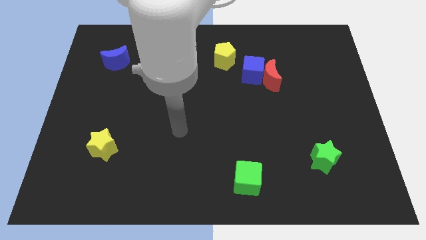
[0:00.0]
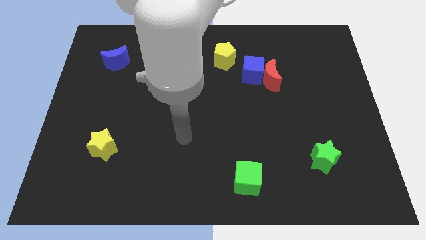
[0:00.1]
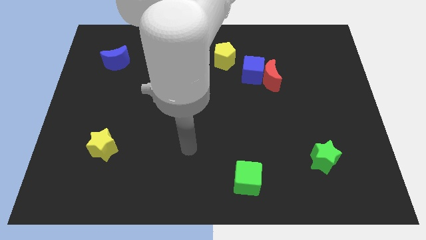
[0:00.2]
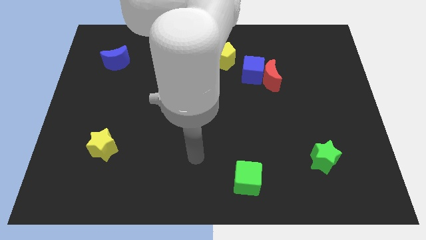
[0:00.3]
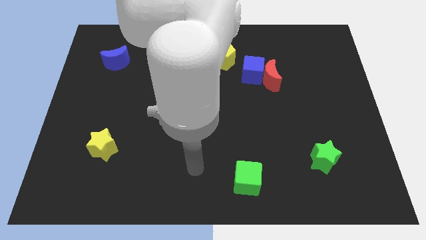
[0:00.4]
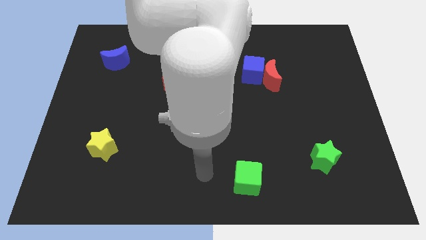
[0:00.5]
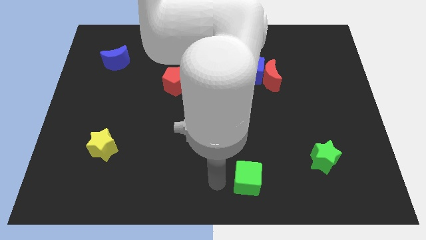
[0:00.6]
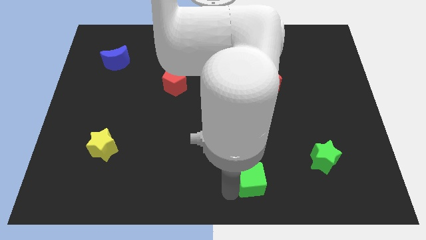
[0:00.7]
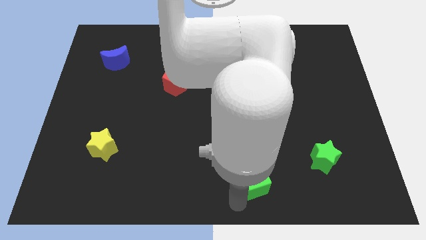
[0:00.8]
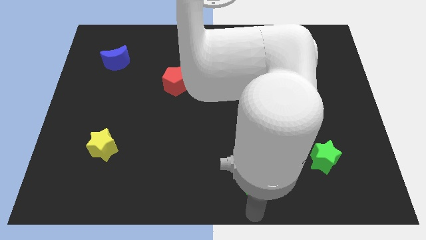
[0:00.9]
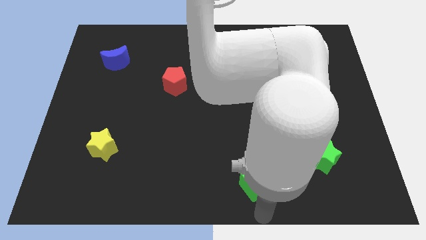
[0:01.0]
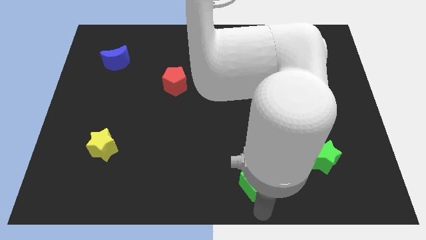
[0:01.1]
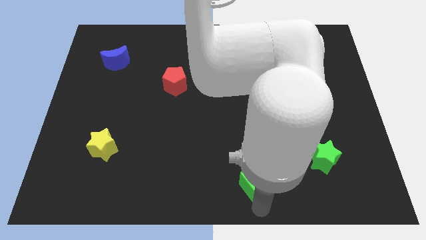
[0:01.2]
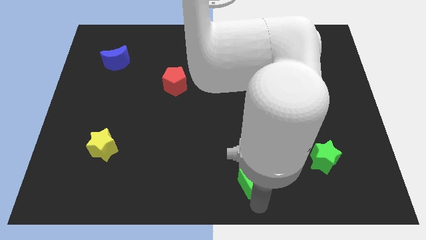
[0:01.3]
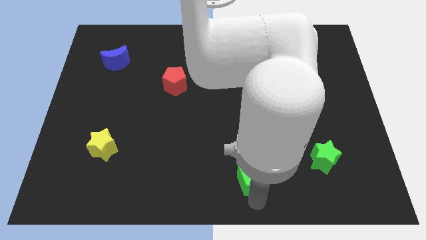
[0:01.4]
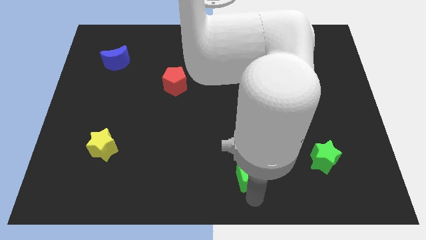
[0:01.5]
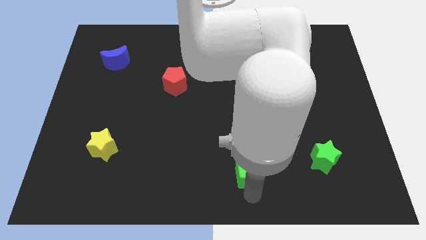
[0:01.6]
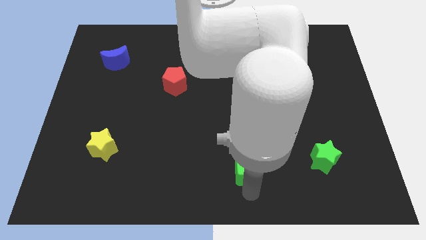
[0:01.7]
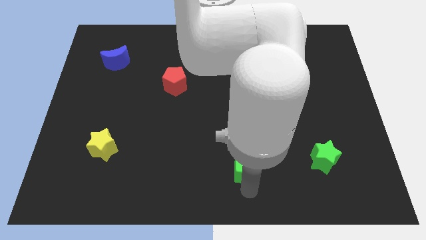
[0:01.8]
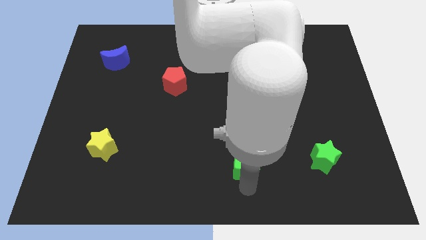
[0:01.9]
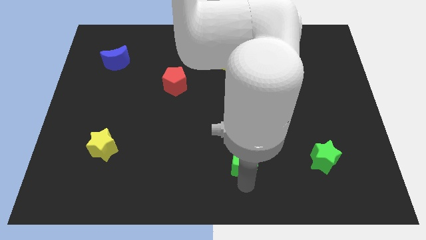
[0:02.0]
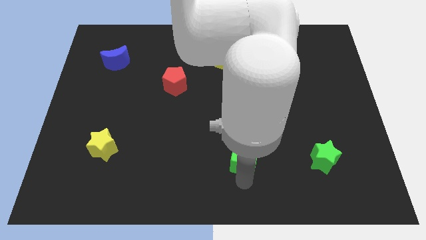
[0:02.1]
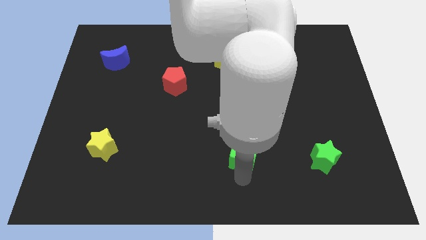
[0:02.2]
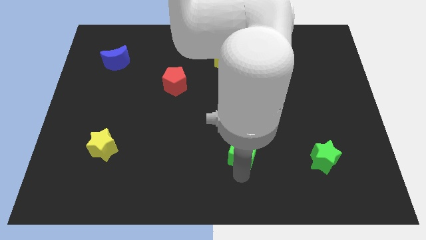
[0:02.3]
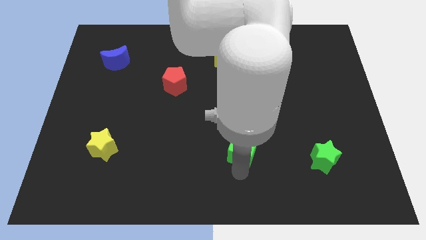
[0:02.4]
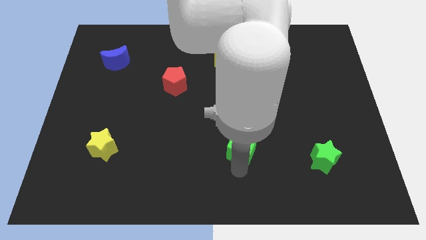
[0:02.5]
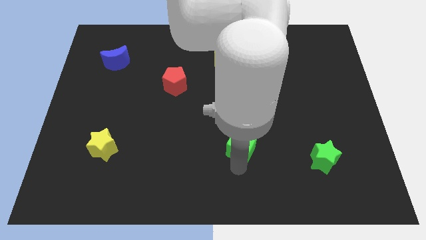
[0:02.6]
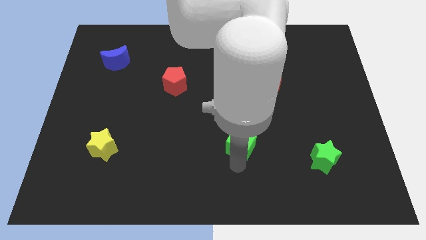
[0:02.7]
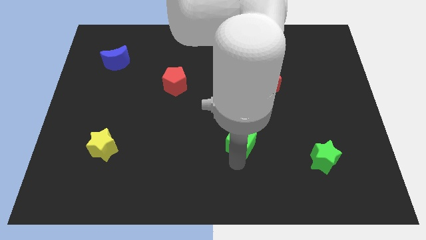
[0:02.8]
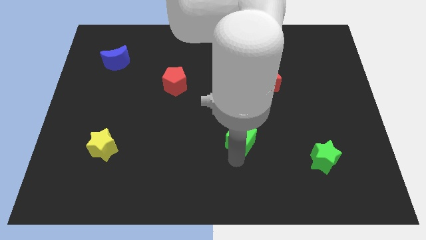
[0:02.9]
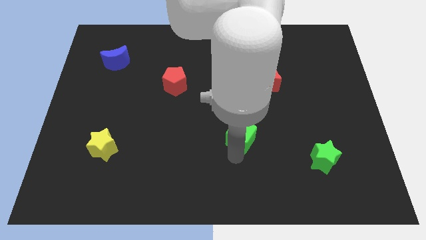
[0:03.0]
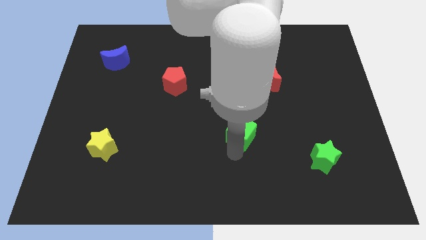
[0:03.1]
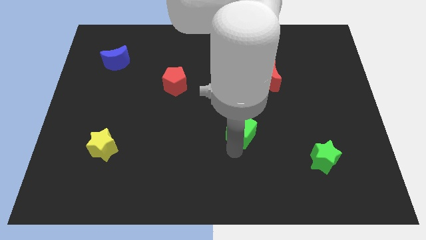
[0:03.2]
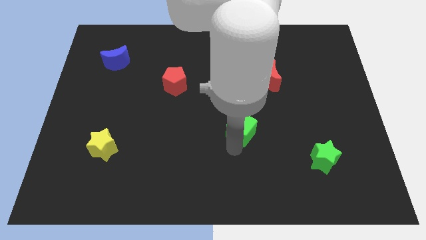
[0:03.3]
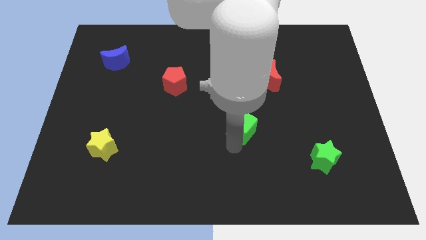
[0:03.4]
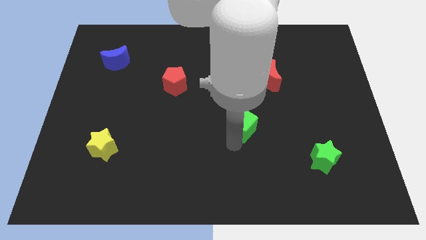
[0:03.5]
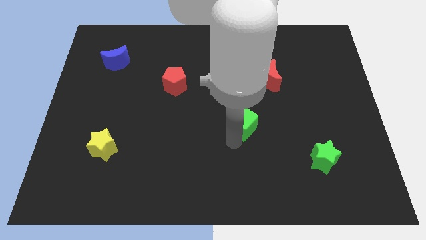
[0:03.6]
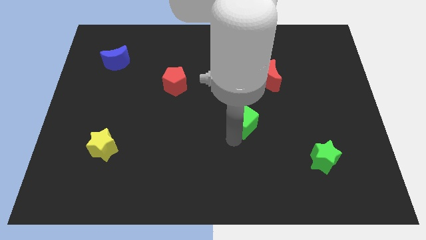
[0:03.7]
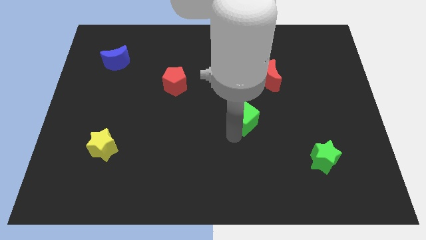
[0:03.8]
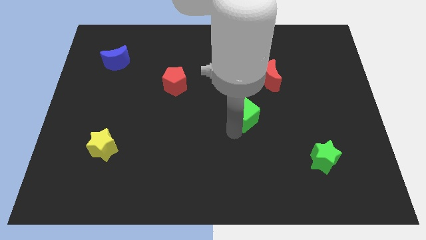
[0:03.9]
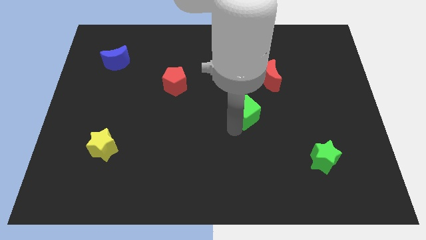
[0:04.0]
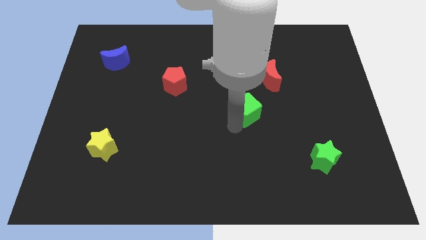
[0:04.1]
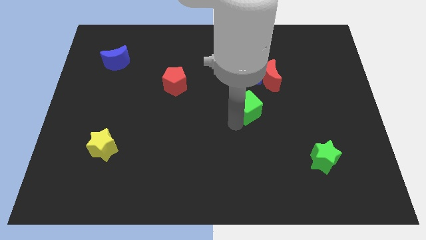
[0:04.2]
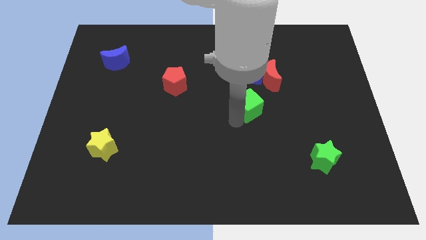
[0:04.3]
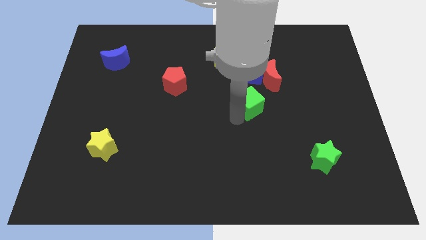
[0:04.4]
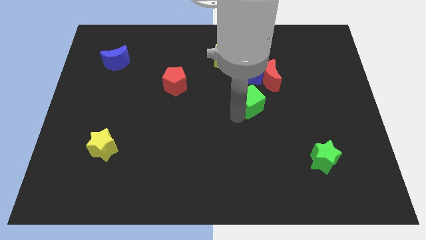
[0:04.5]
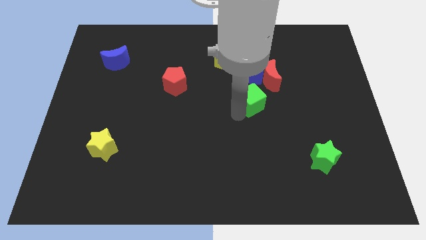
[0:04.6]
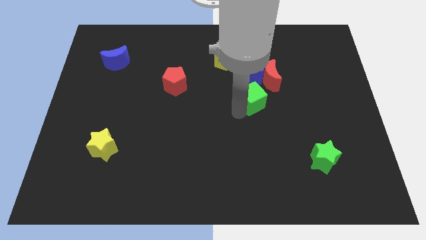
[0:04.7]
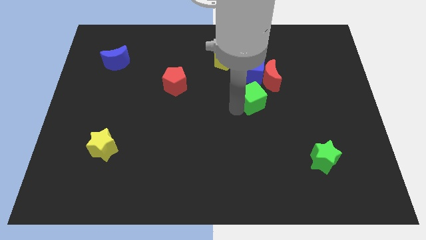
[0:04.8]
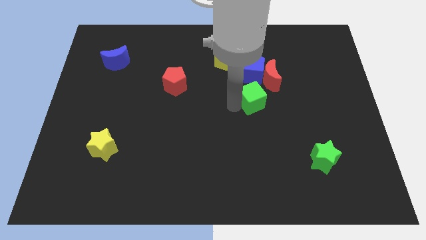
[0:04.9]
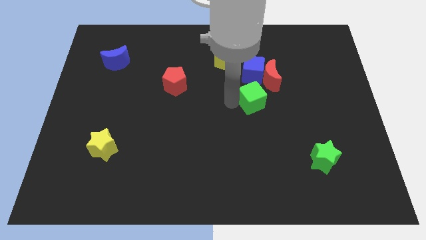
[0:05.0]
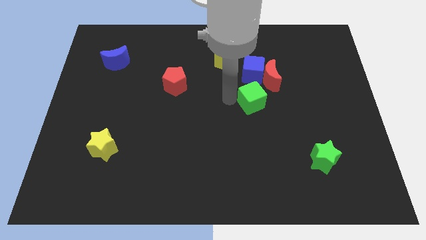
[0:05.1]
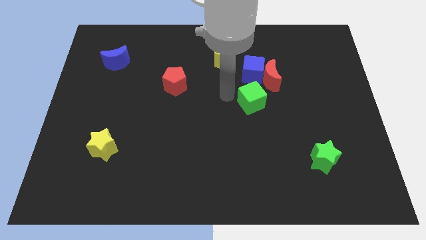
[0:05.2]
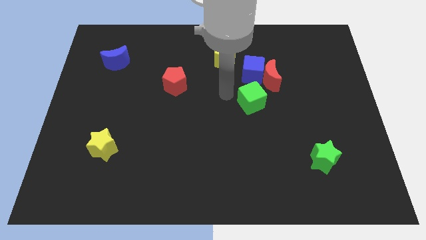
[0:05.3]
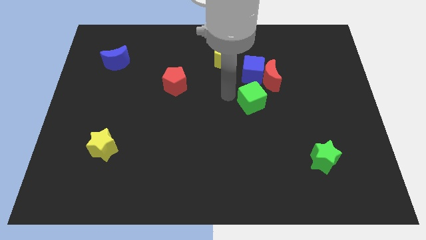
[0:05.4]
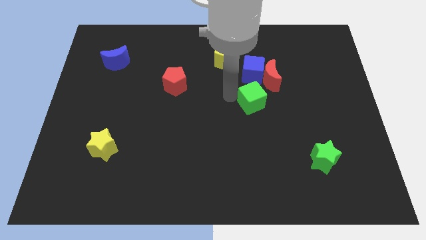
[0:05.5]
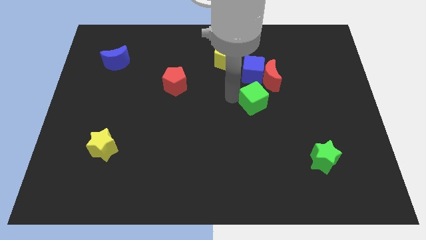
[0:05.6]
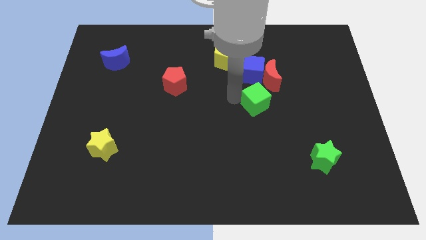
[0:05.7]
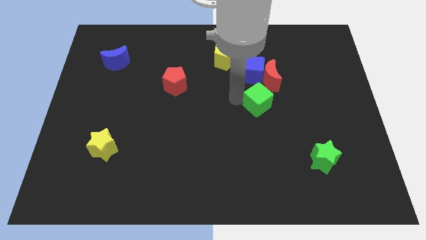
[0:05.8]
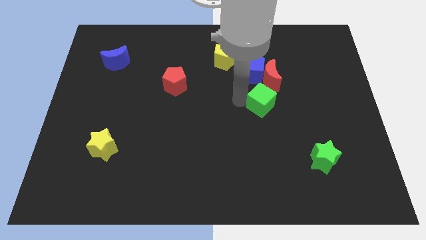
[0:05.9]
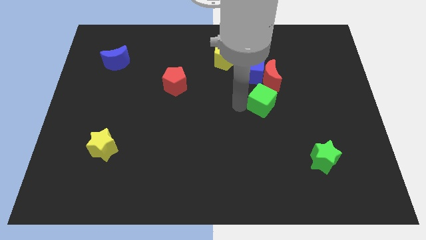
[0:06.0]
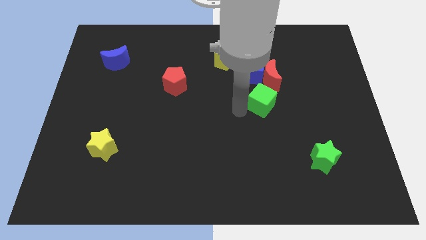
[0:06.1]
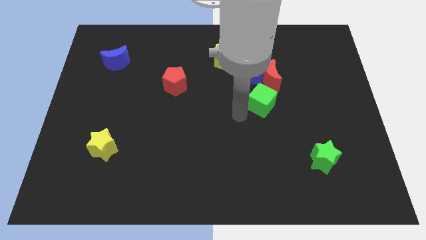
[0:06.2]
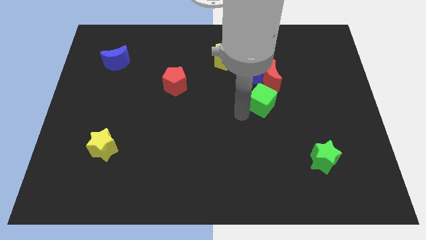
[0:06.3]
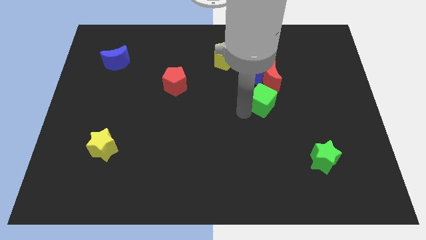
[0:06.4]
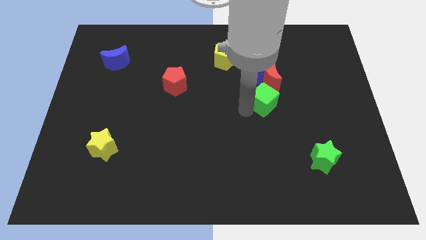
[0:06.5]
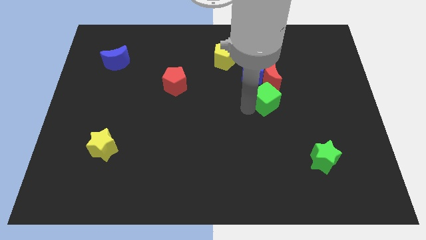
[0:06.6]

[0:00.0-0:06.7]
push the green cube diagonally down and to the right of the blue cube

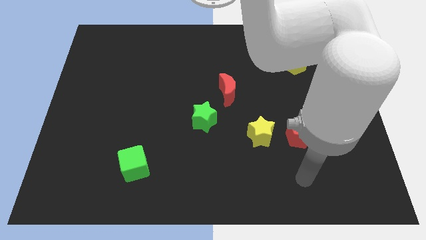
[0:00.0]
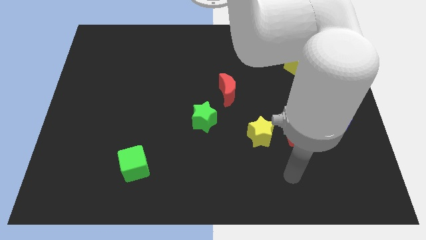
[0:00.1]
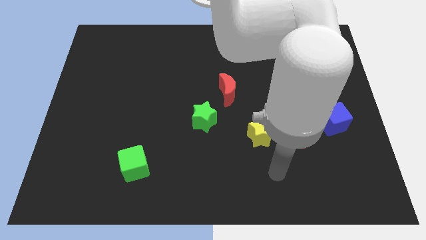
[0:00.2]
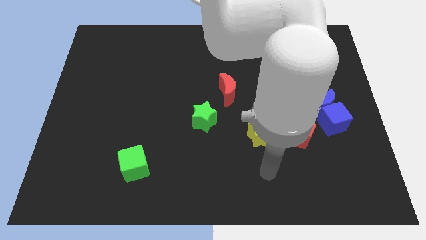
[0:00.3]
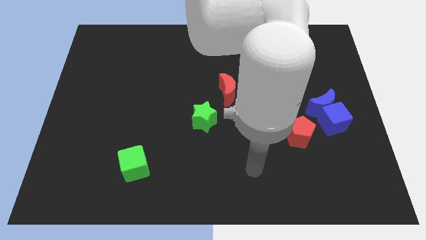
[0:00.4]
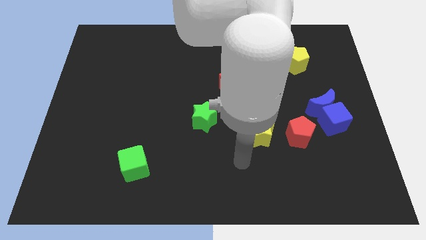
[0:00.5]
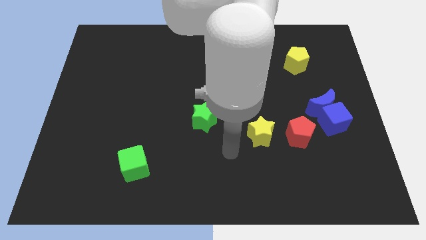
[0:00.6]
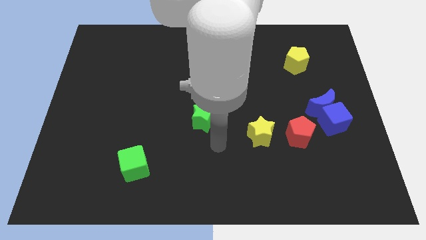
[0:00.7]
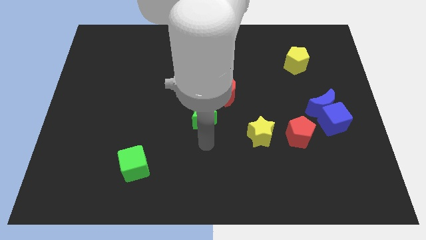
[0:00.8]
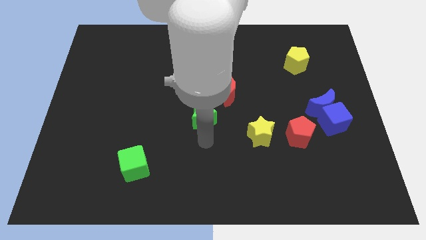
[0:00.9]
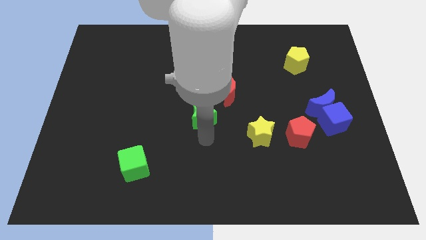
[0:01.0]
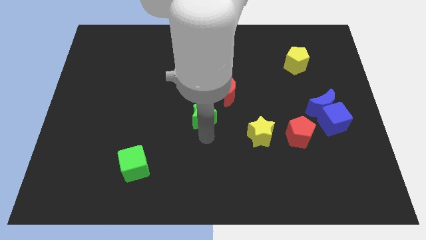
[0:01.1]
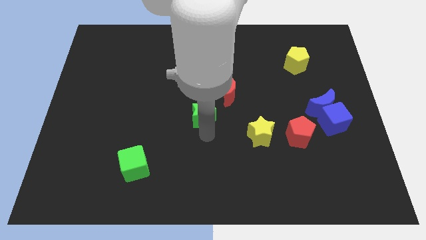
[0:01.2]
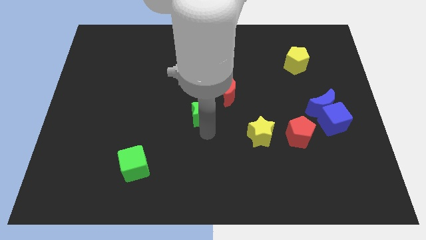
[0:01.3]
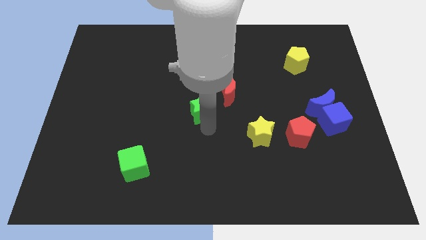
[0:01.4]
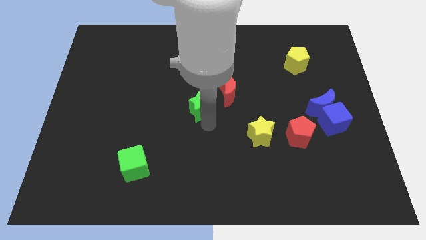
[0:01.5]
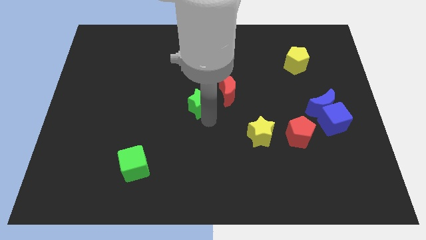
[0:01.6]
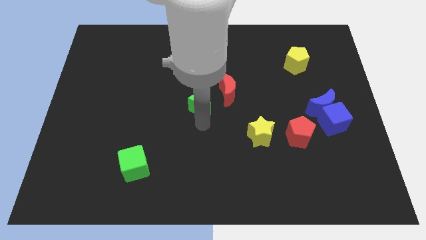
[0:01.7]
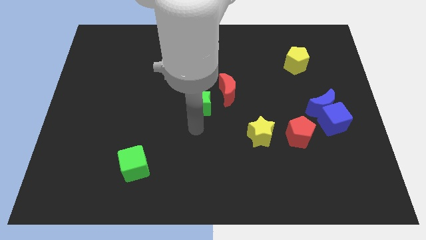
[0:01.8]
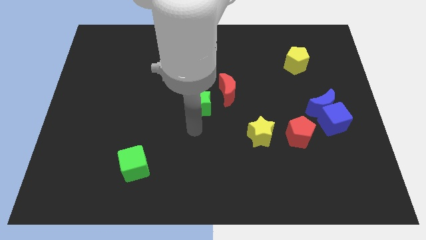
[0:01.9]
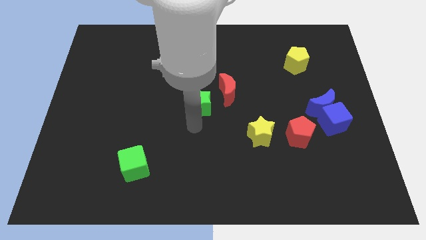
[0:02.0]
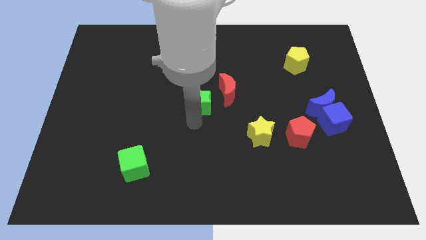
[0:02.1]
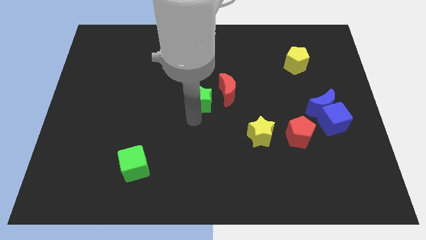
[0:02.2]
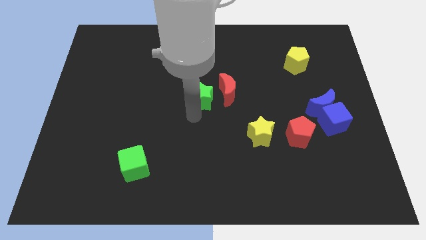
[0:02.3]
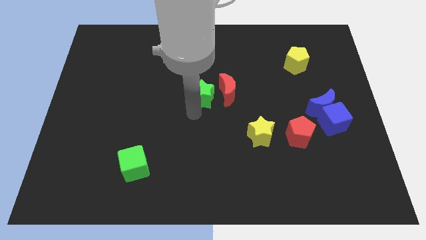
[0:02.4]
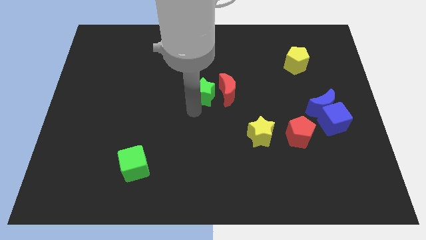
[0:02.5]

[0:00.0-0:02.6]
put the green star to the top left of the red moon
